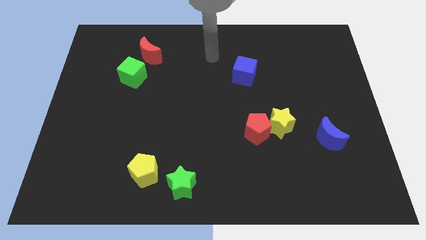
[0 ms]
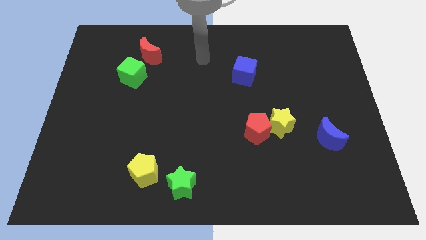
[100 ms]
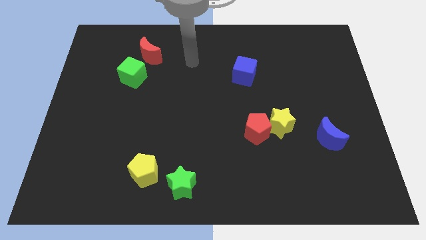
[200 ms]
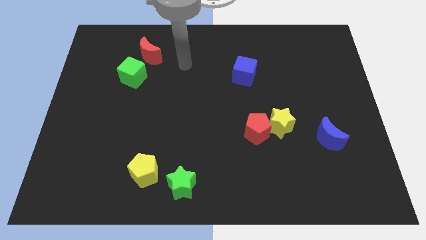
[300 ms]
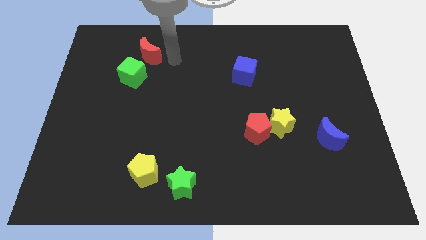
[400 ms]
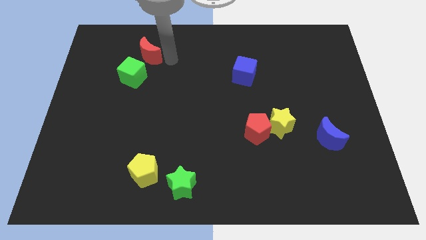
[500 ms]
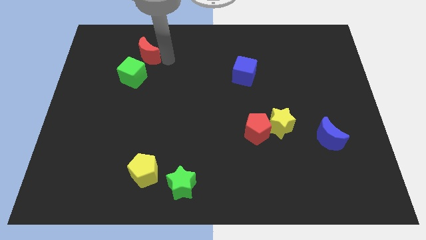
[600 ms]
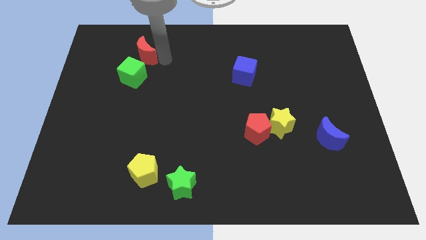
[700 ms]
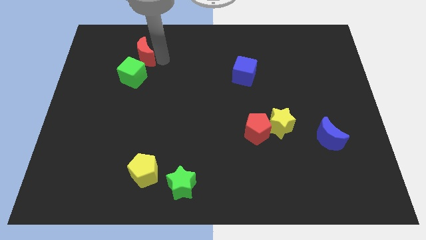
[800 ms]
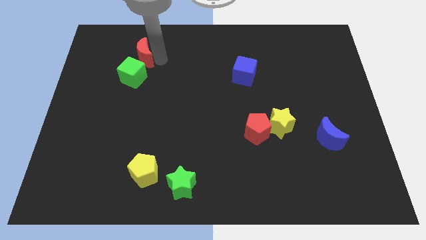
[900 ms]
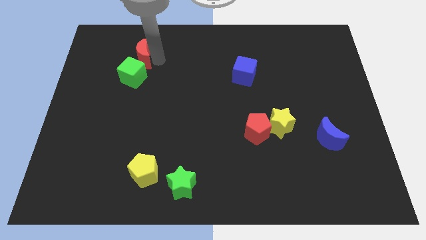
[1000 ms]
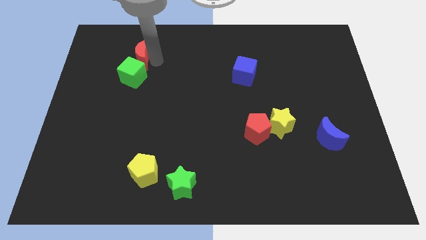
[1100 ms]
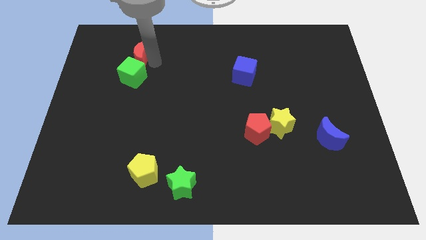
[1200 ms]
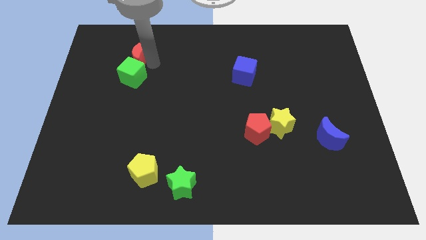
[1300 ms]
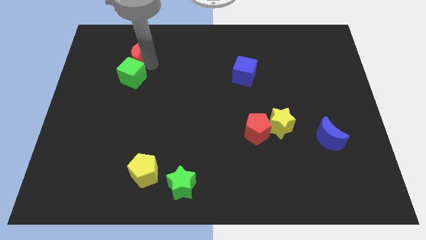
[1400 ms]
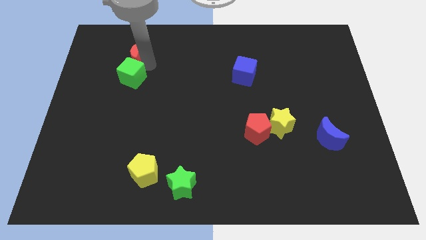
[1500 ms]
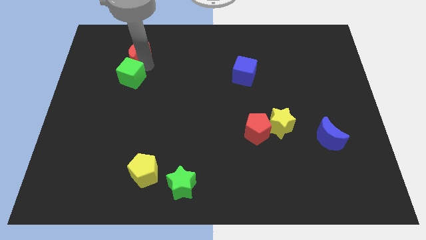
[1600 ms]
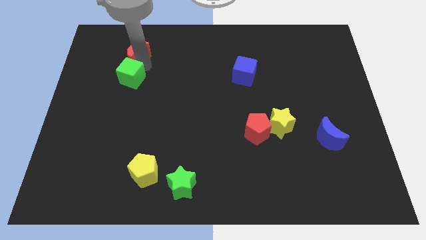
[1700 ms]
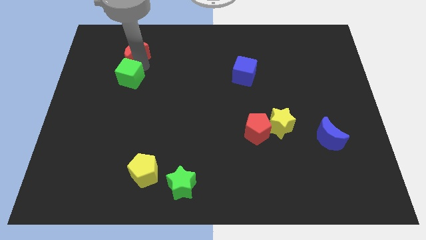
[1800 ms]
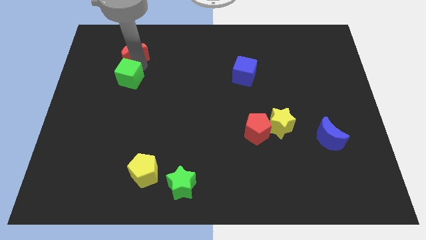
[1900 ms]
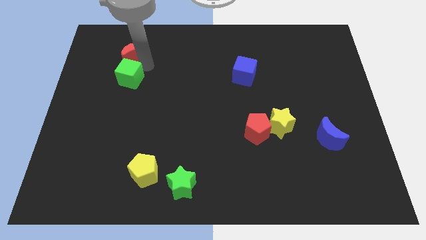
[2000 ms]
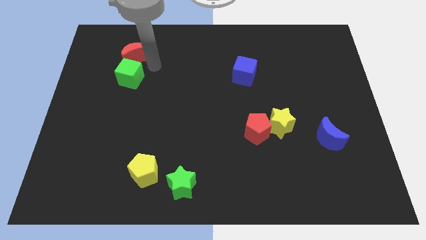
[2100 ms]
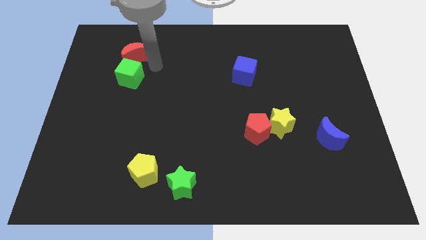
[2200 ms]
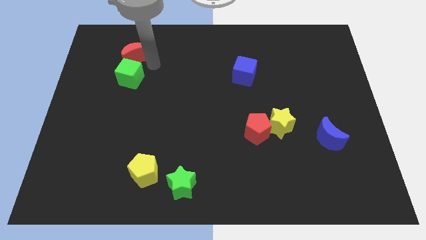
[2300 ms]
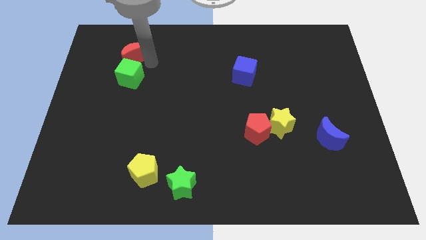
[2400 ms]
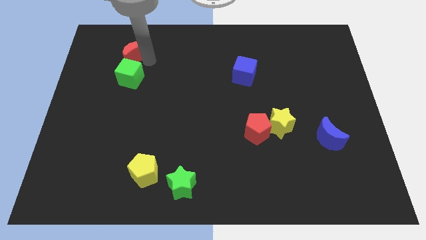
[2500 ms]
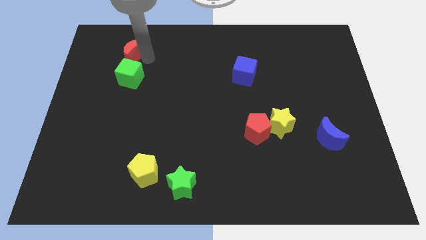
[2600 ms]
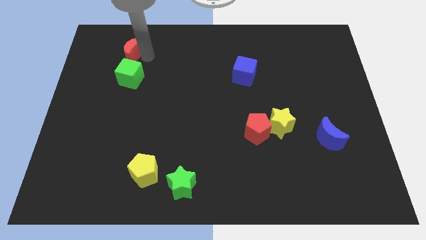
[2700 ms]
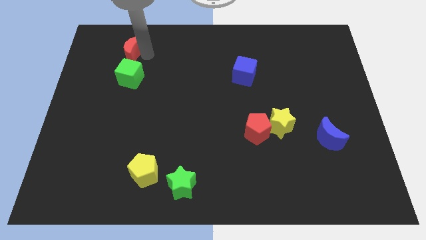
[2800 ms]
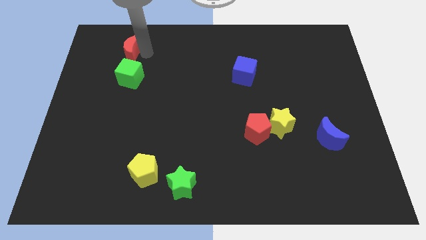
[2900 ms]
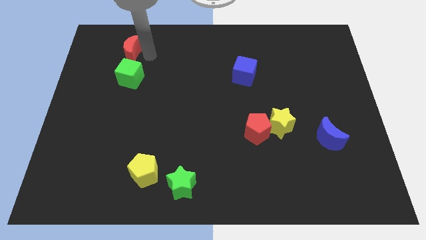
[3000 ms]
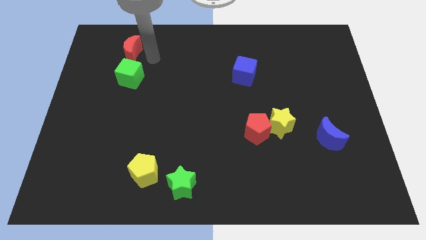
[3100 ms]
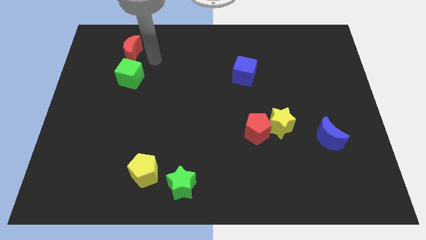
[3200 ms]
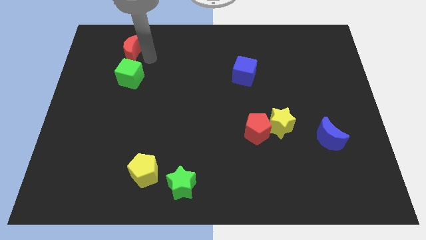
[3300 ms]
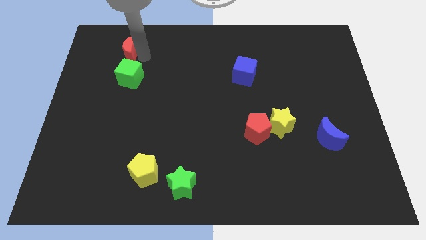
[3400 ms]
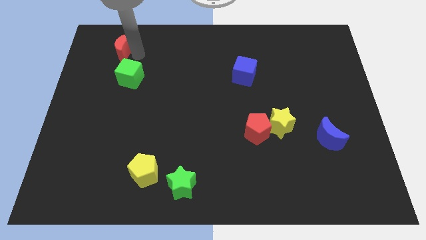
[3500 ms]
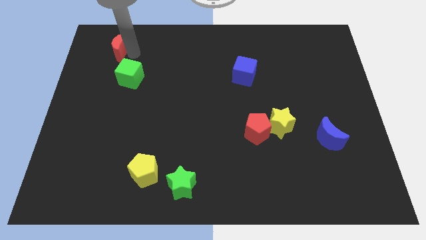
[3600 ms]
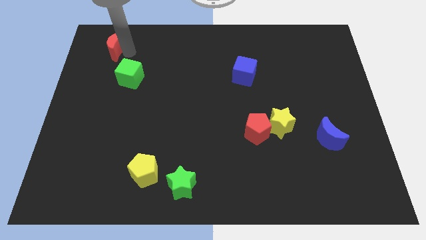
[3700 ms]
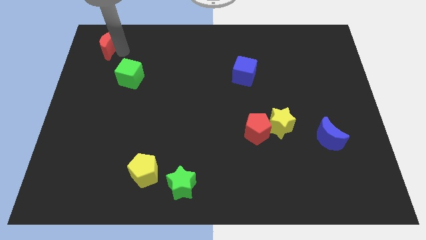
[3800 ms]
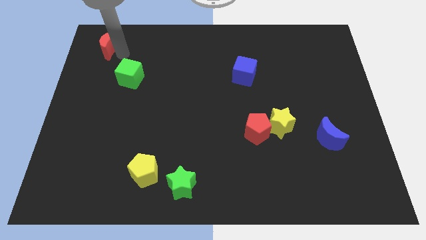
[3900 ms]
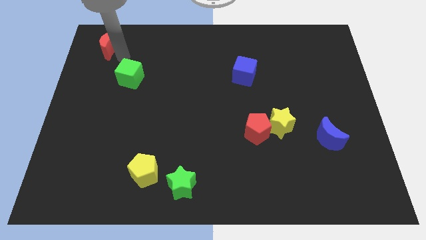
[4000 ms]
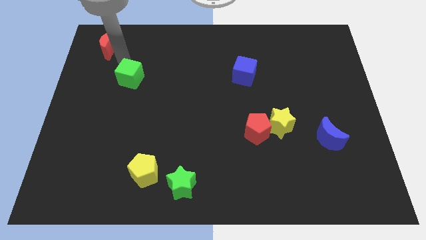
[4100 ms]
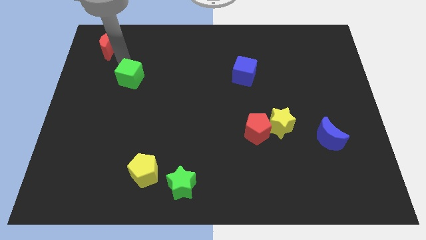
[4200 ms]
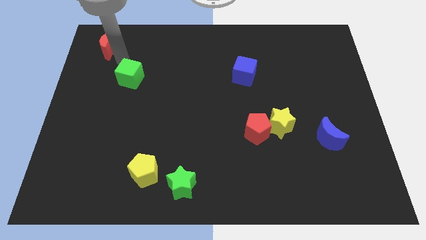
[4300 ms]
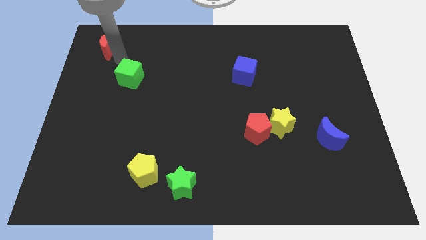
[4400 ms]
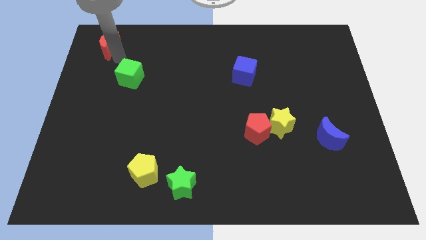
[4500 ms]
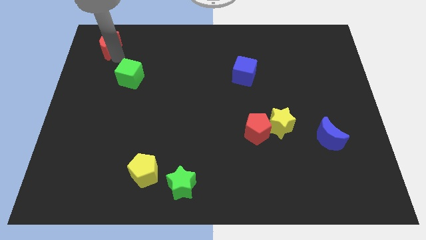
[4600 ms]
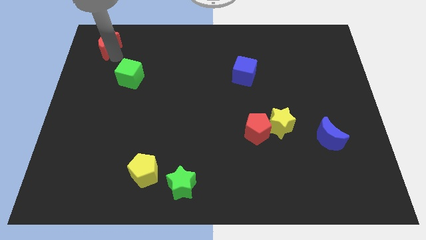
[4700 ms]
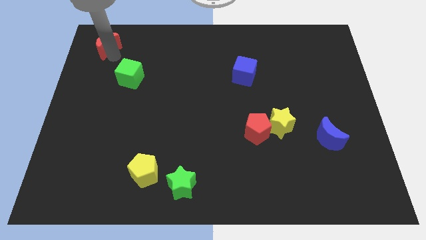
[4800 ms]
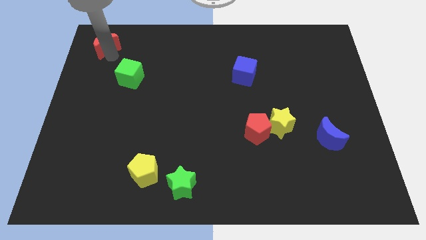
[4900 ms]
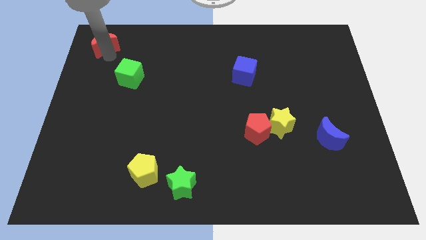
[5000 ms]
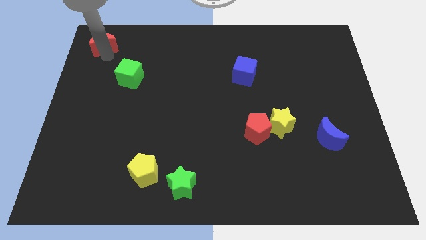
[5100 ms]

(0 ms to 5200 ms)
put the red moon to the upper left corner
